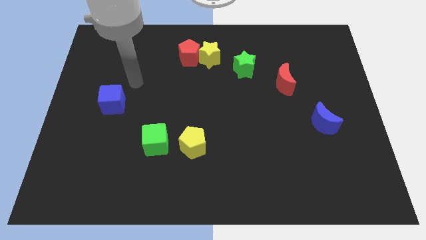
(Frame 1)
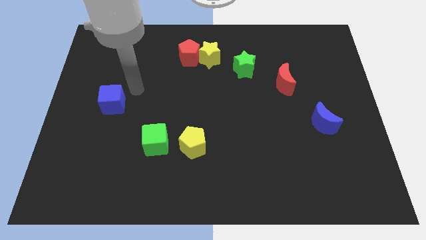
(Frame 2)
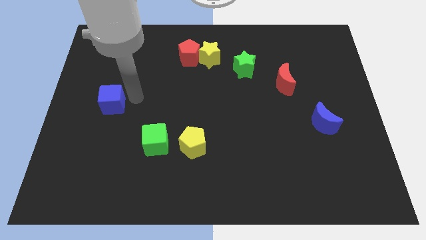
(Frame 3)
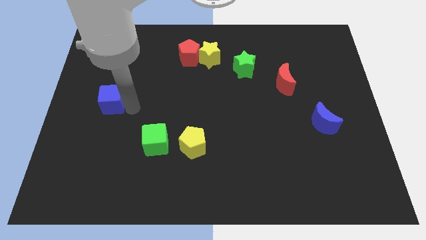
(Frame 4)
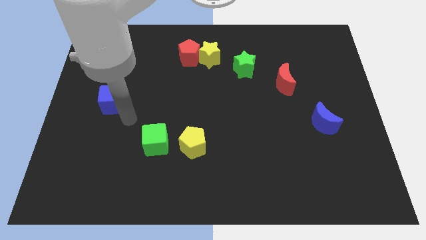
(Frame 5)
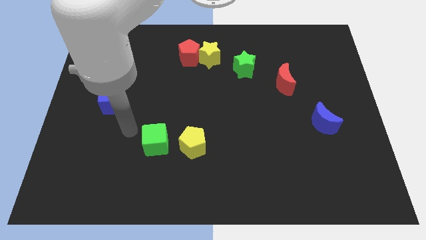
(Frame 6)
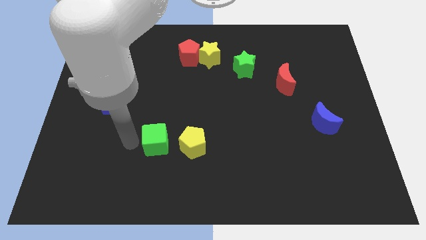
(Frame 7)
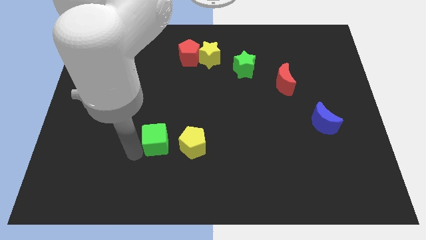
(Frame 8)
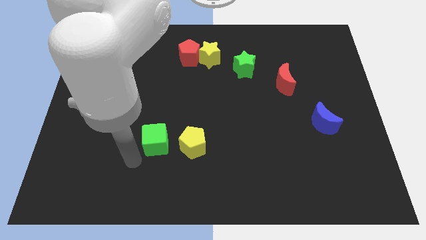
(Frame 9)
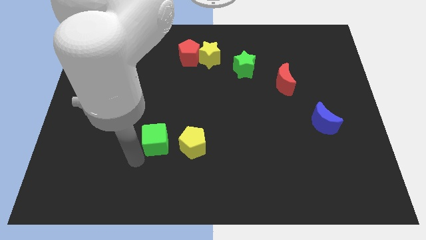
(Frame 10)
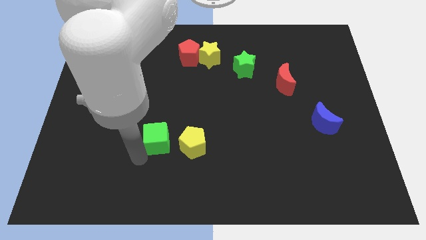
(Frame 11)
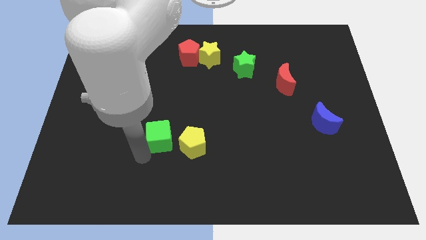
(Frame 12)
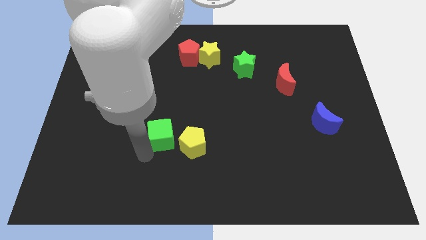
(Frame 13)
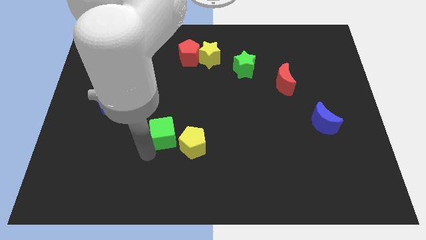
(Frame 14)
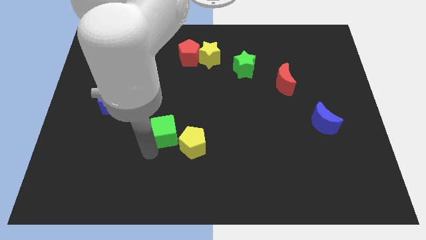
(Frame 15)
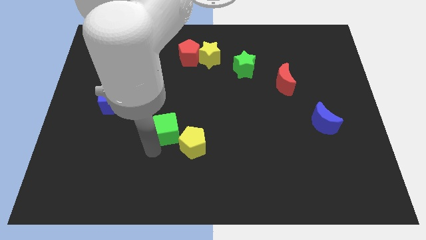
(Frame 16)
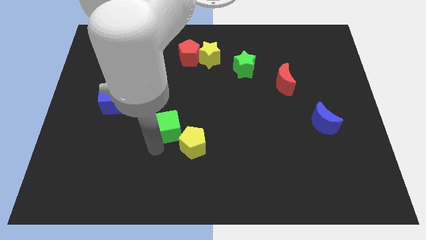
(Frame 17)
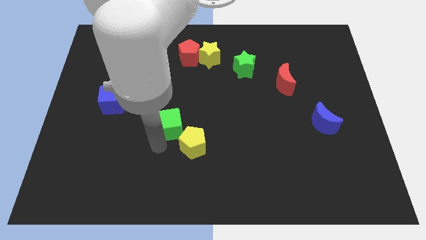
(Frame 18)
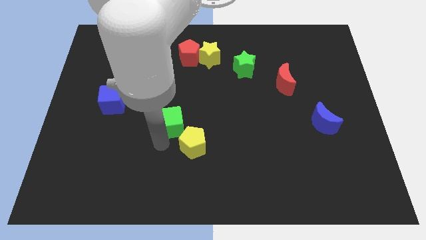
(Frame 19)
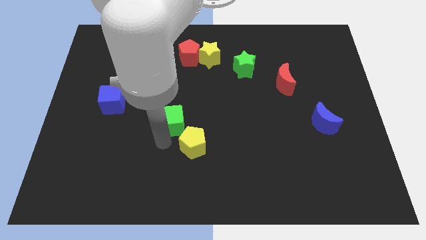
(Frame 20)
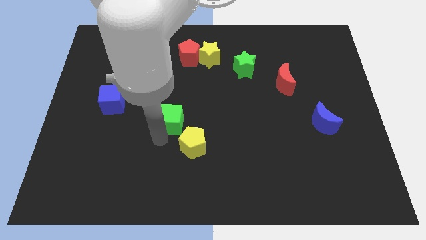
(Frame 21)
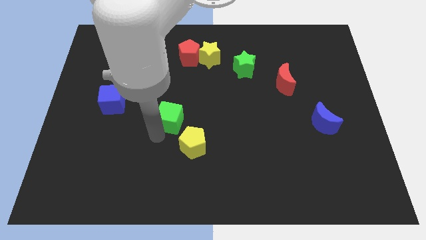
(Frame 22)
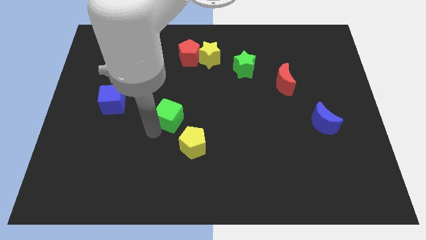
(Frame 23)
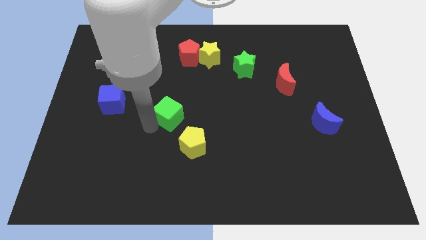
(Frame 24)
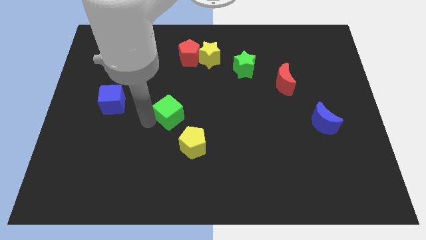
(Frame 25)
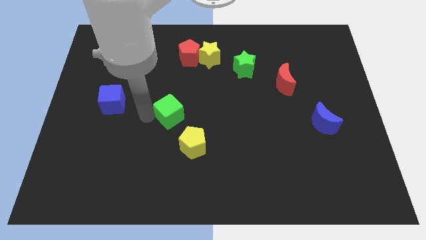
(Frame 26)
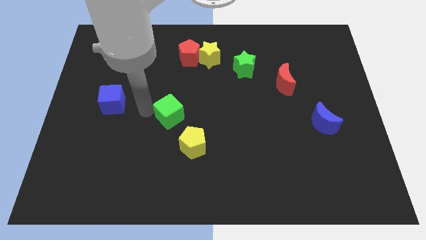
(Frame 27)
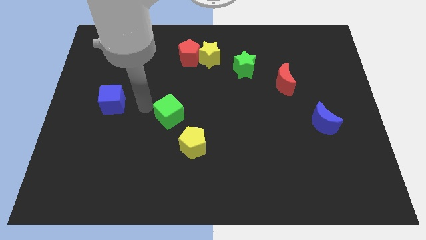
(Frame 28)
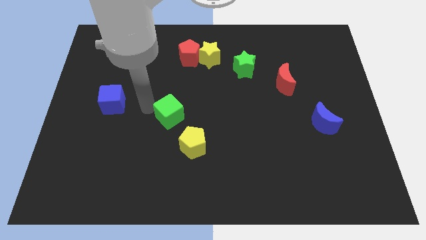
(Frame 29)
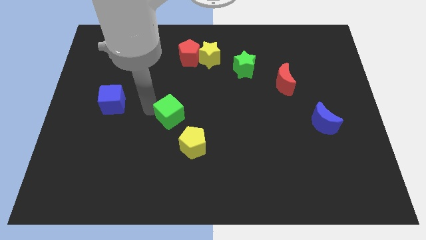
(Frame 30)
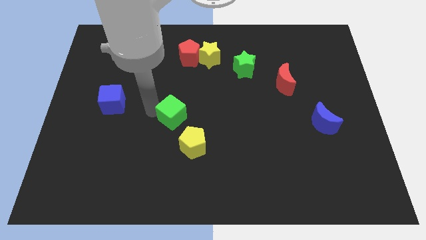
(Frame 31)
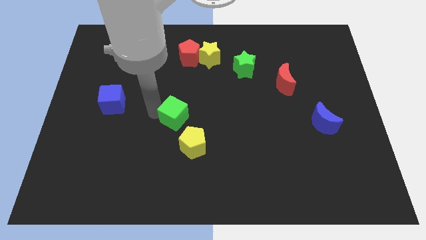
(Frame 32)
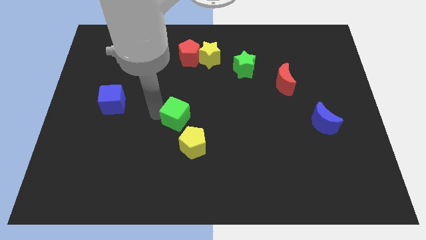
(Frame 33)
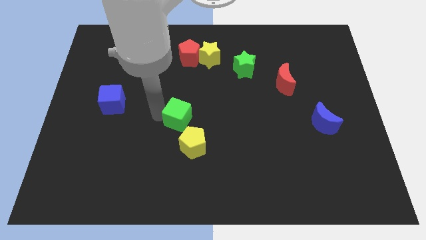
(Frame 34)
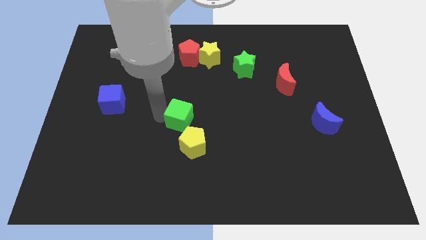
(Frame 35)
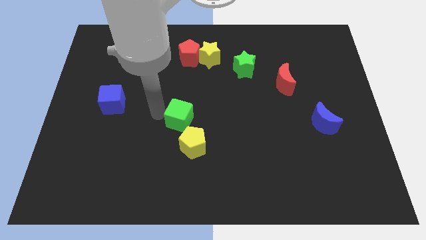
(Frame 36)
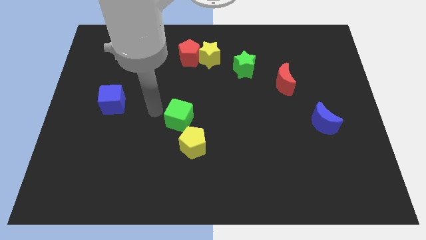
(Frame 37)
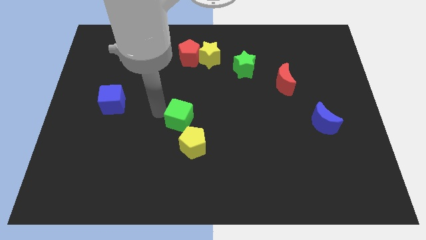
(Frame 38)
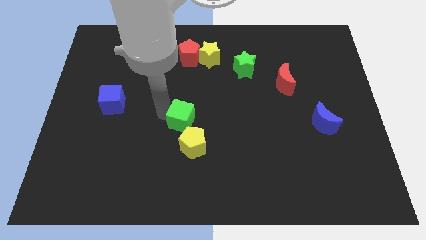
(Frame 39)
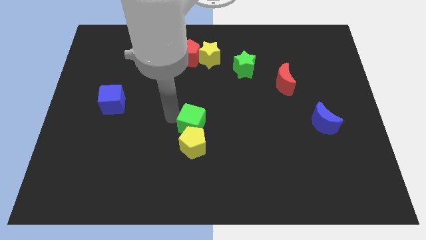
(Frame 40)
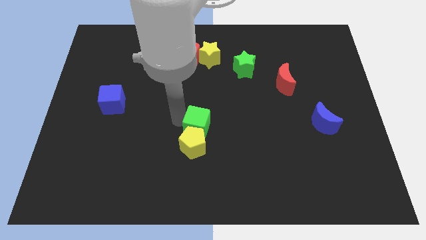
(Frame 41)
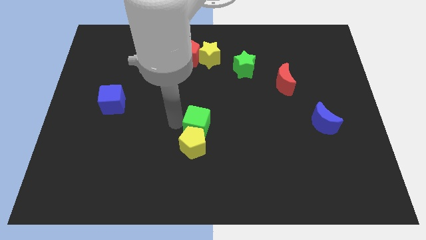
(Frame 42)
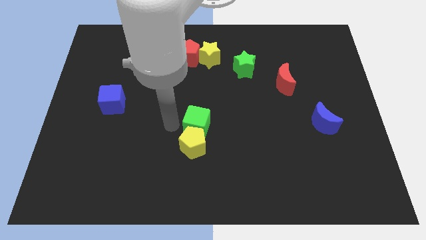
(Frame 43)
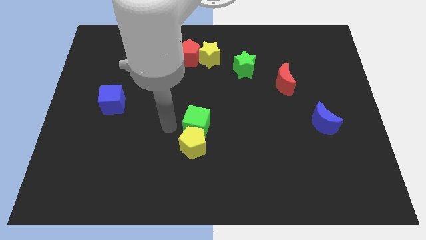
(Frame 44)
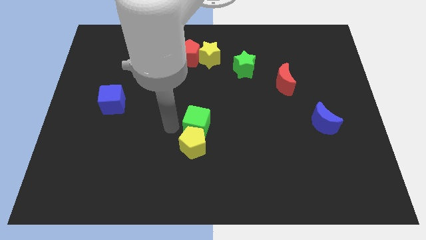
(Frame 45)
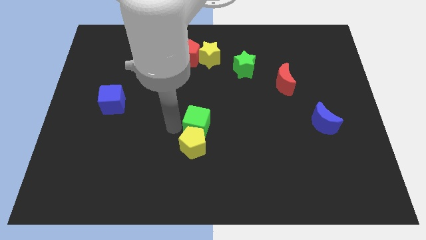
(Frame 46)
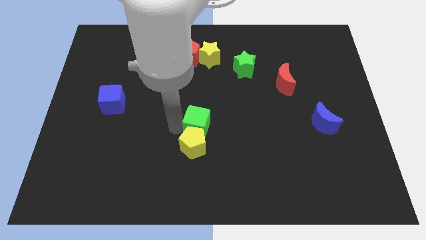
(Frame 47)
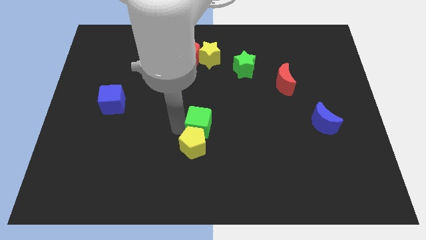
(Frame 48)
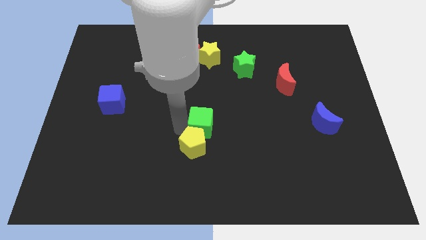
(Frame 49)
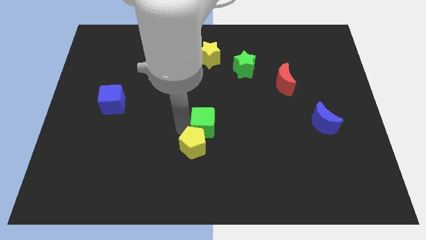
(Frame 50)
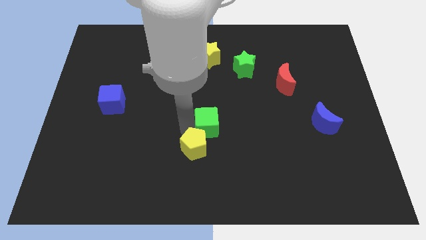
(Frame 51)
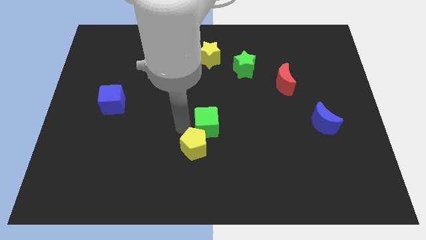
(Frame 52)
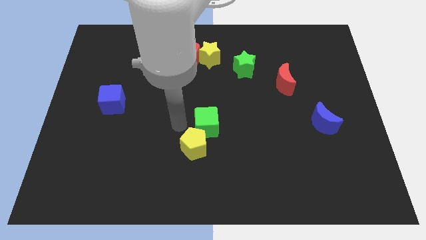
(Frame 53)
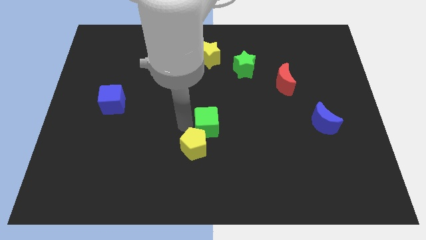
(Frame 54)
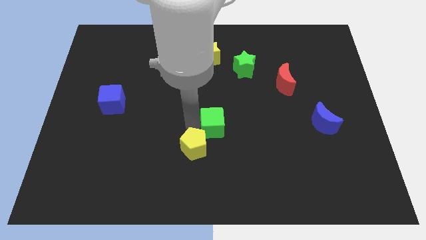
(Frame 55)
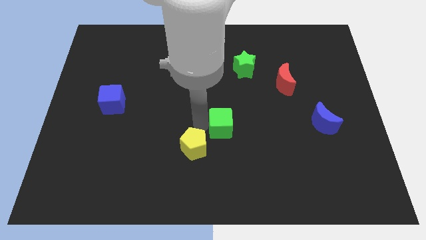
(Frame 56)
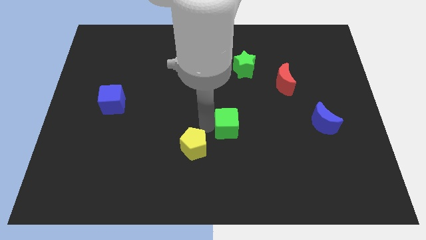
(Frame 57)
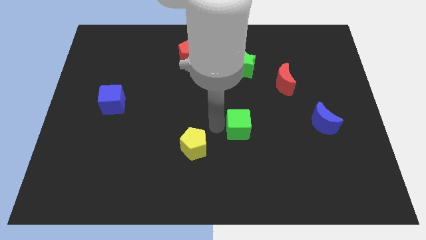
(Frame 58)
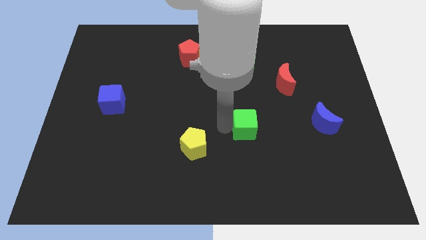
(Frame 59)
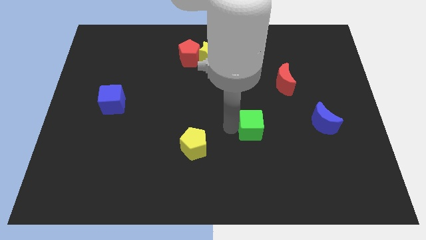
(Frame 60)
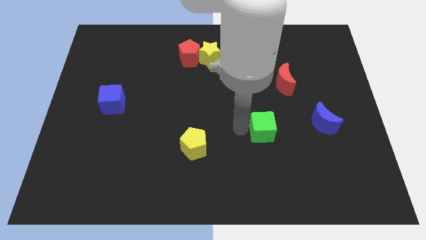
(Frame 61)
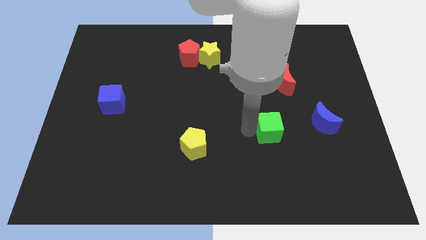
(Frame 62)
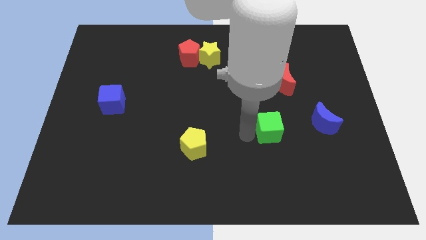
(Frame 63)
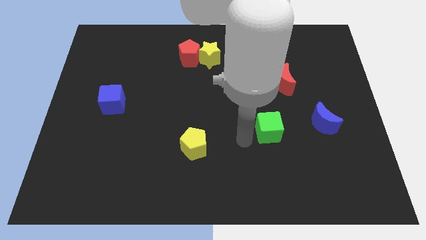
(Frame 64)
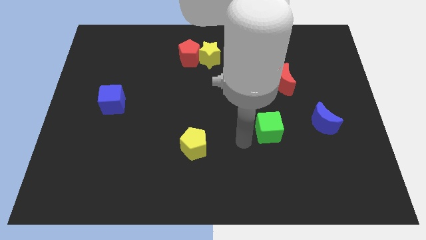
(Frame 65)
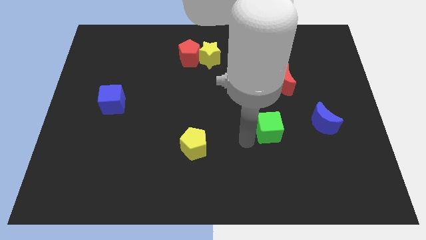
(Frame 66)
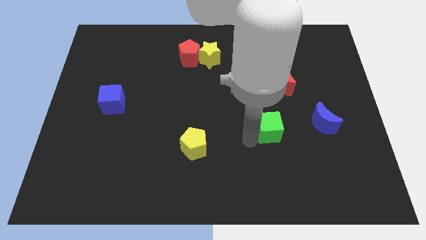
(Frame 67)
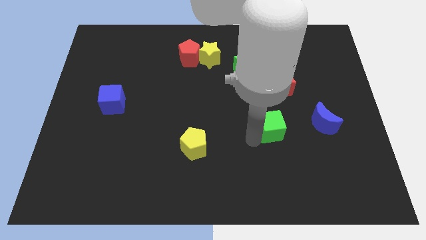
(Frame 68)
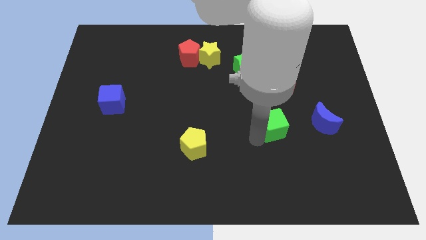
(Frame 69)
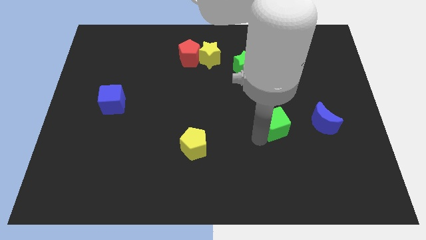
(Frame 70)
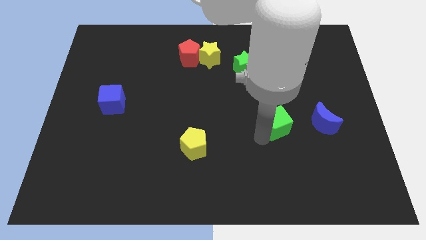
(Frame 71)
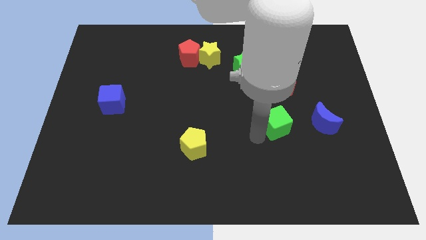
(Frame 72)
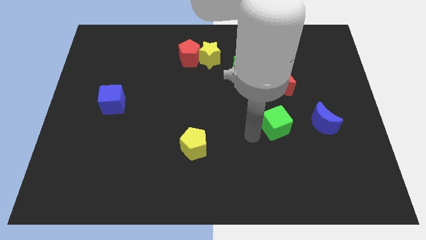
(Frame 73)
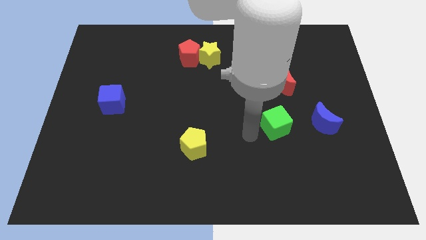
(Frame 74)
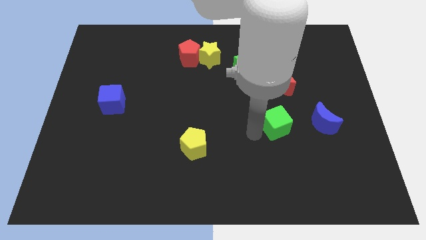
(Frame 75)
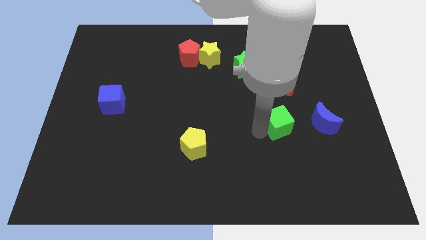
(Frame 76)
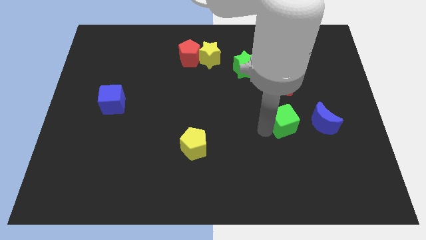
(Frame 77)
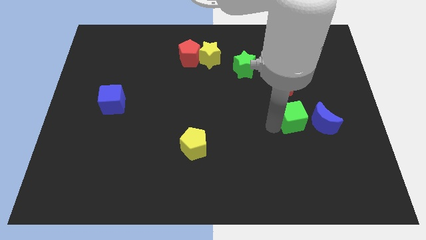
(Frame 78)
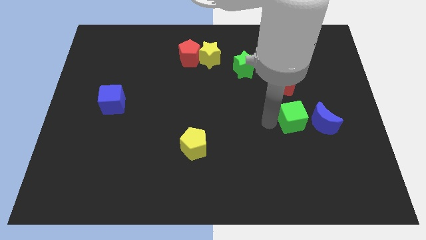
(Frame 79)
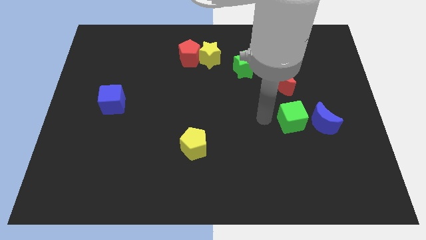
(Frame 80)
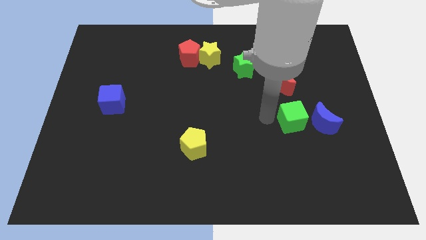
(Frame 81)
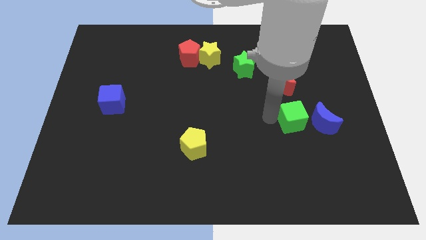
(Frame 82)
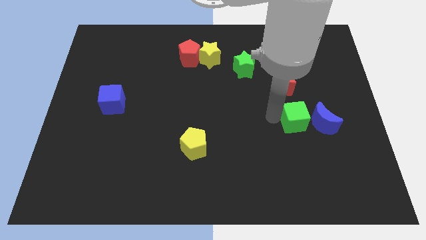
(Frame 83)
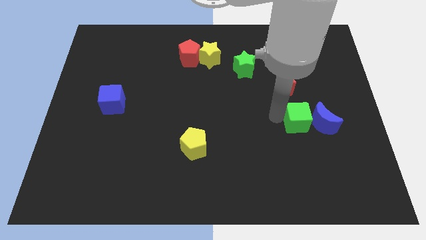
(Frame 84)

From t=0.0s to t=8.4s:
push the green cube towards the blue moon
